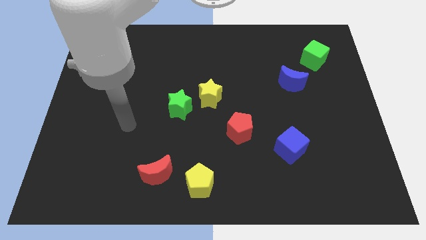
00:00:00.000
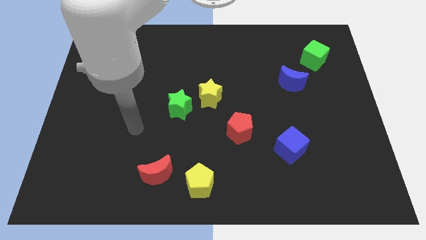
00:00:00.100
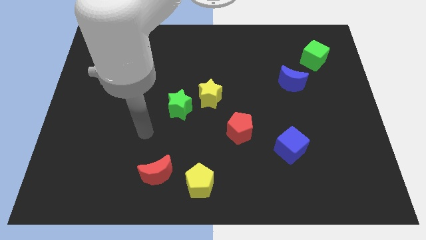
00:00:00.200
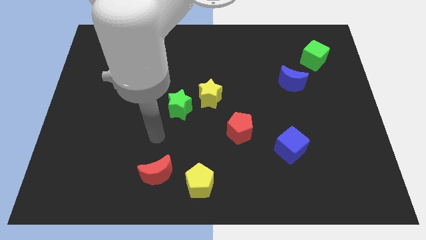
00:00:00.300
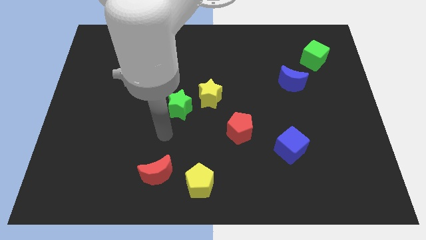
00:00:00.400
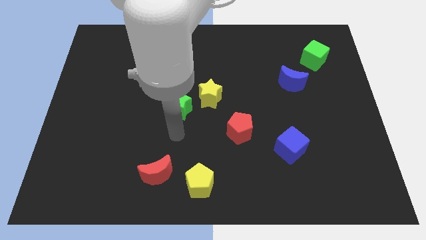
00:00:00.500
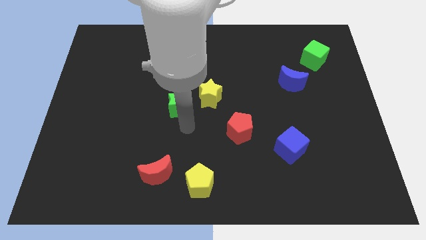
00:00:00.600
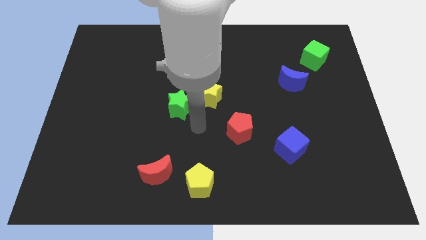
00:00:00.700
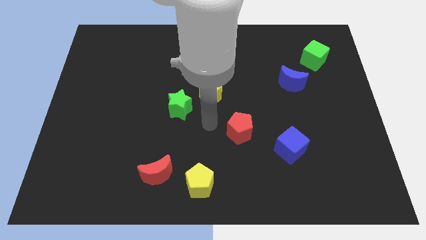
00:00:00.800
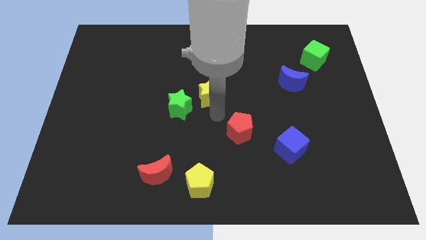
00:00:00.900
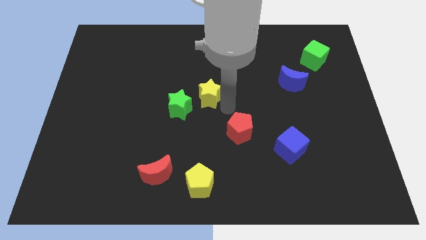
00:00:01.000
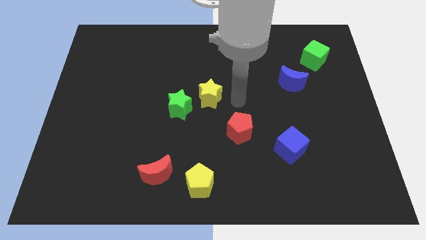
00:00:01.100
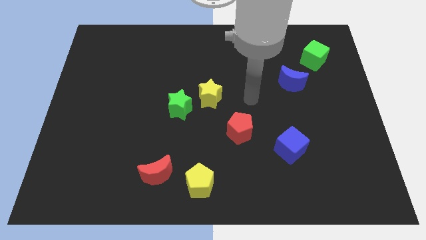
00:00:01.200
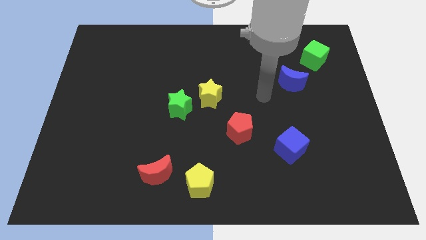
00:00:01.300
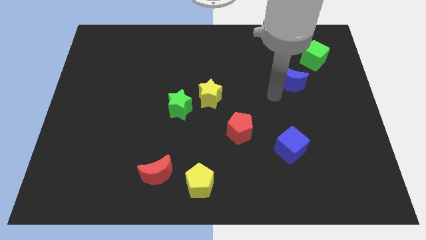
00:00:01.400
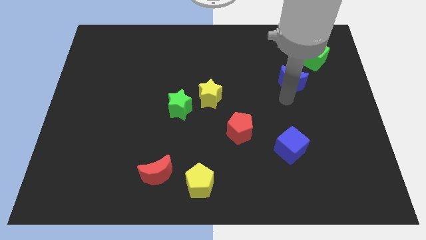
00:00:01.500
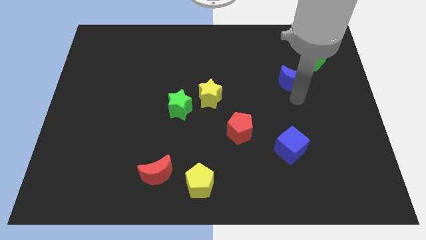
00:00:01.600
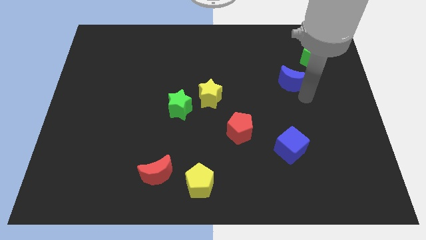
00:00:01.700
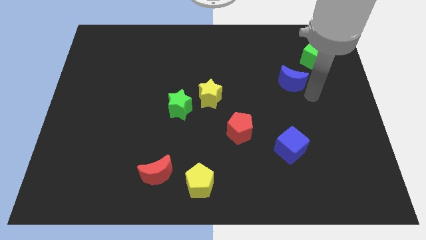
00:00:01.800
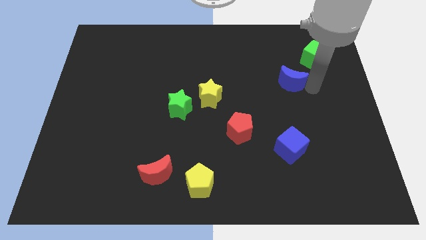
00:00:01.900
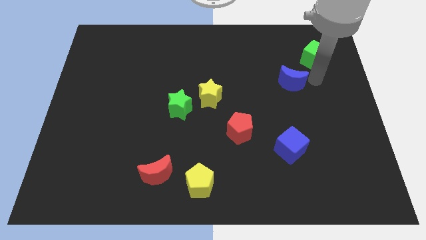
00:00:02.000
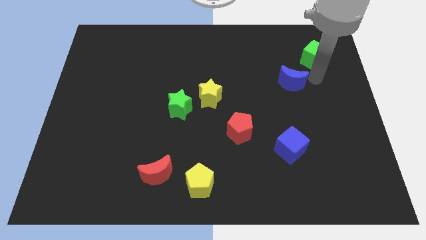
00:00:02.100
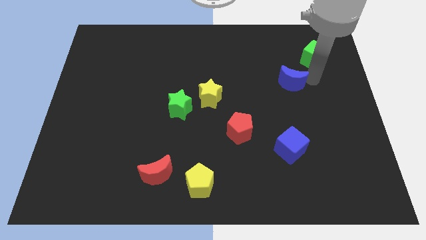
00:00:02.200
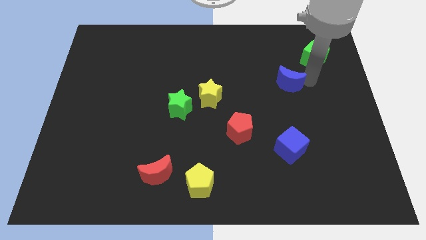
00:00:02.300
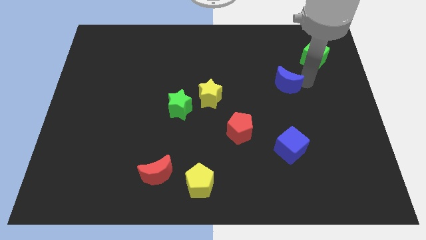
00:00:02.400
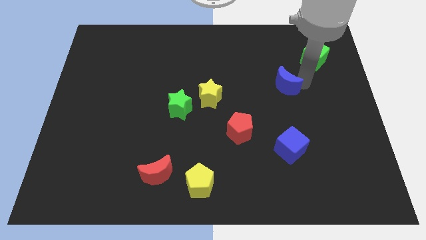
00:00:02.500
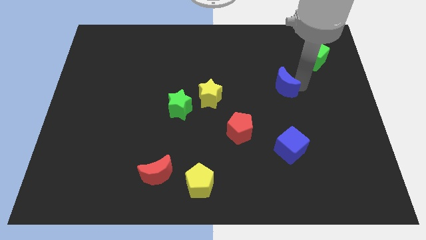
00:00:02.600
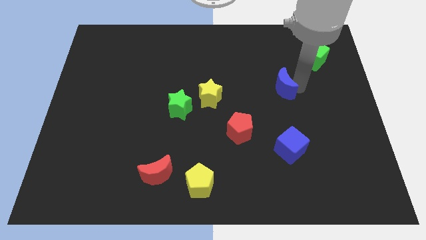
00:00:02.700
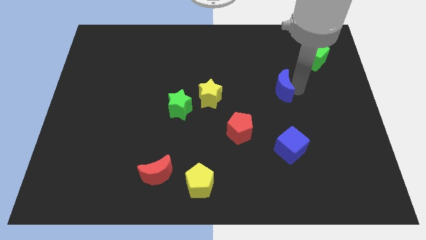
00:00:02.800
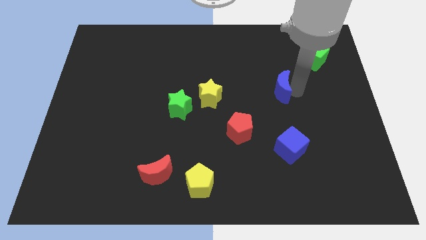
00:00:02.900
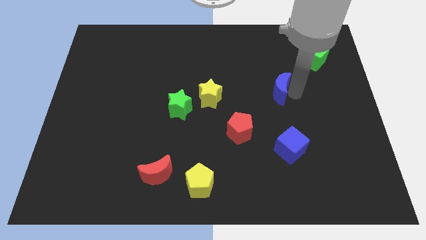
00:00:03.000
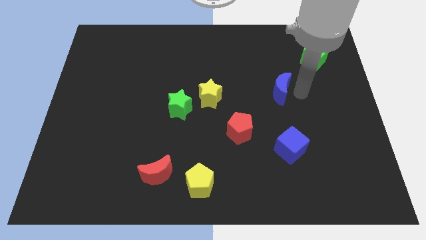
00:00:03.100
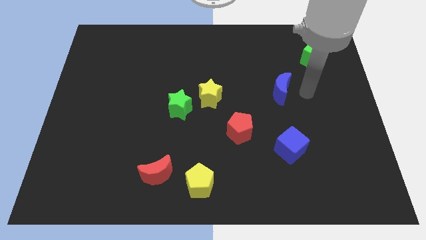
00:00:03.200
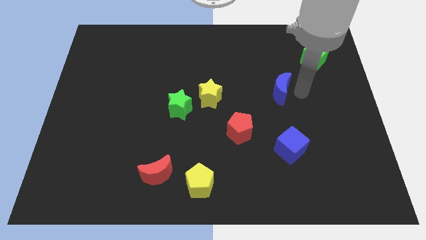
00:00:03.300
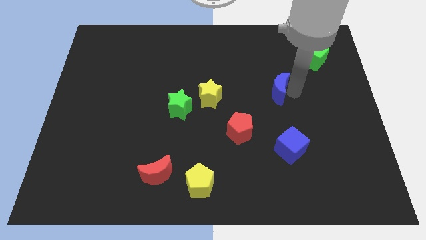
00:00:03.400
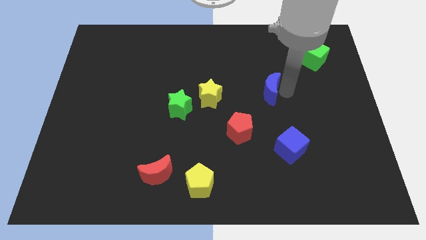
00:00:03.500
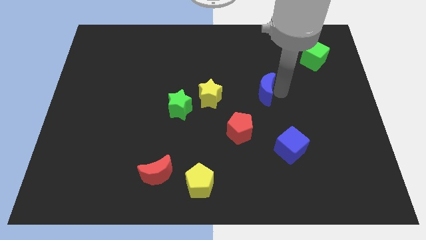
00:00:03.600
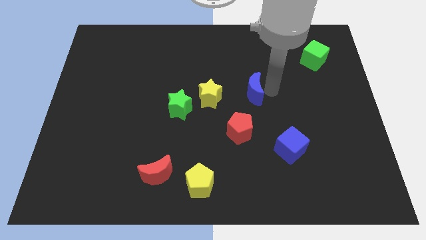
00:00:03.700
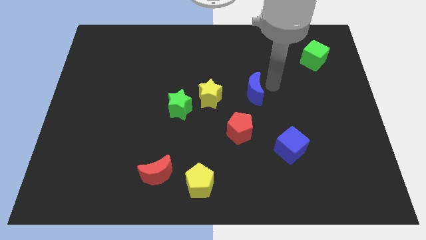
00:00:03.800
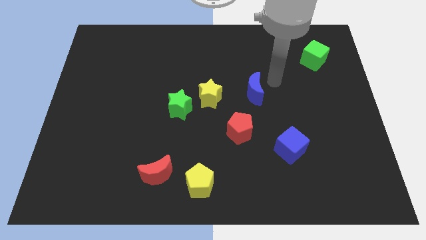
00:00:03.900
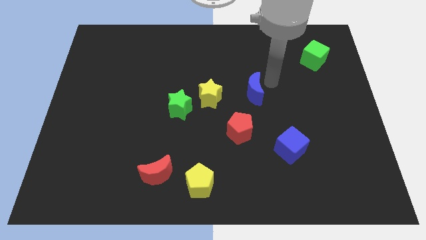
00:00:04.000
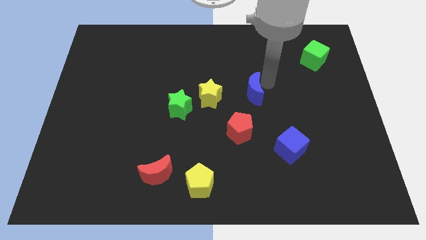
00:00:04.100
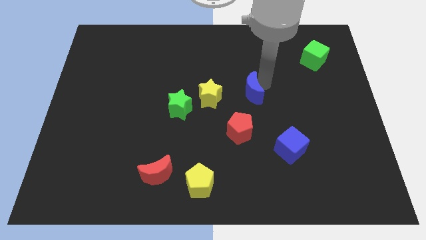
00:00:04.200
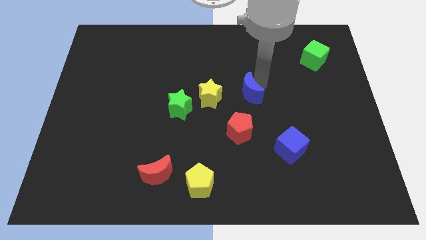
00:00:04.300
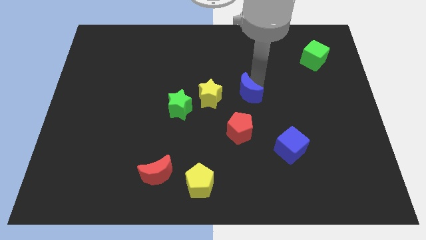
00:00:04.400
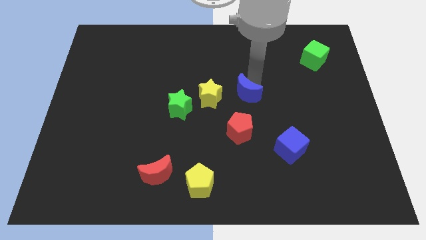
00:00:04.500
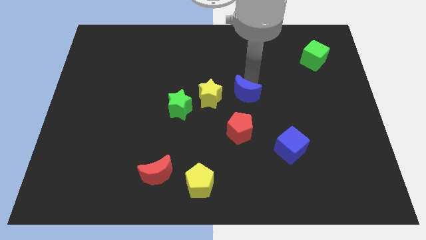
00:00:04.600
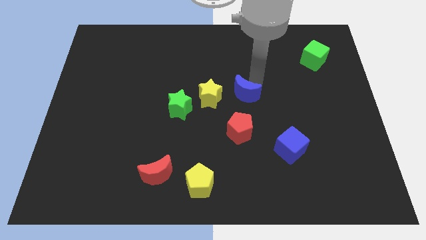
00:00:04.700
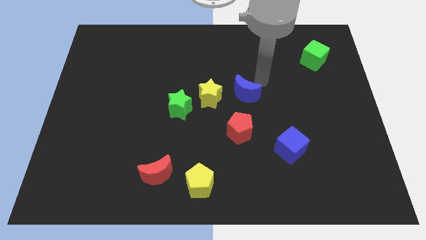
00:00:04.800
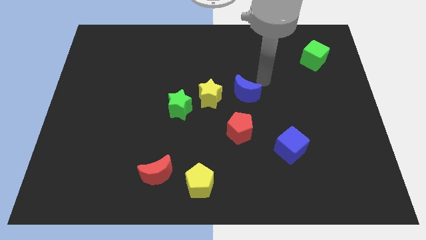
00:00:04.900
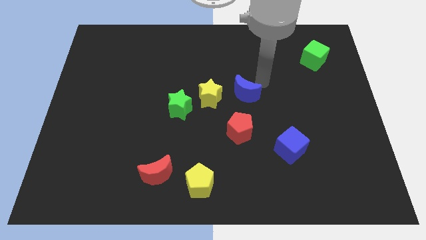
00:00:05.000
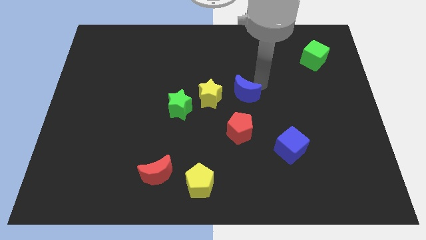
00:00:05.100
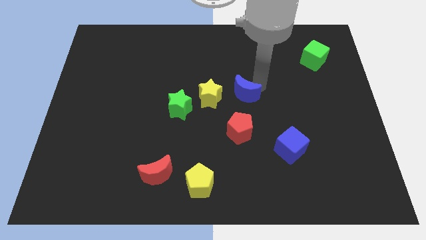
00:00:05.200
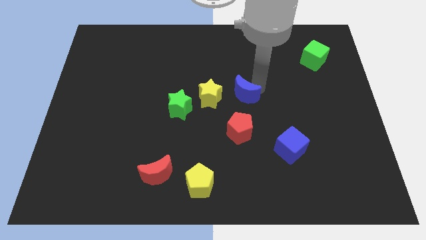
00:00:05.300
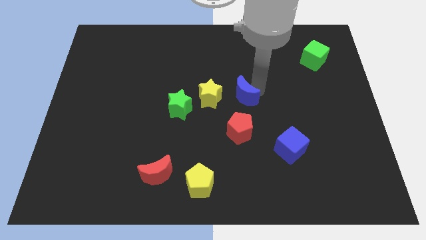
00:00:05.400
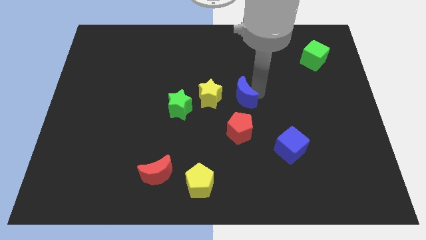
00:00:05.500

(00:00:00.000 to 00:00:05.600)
move the blue moon to the right of the green star

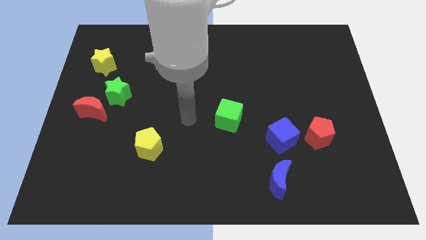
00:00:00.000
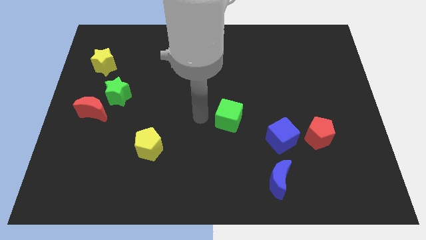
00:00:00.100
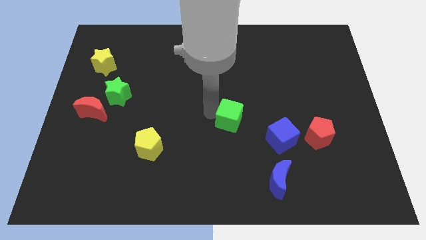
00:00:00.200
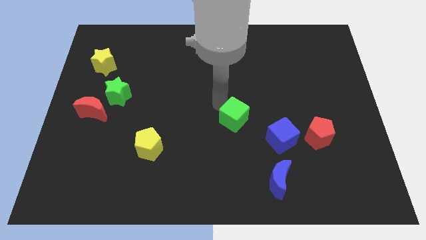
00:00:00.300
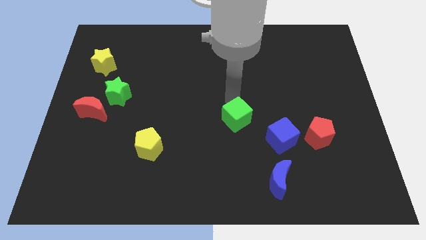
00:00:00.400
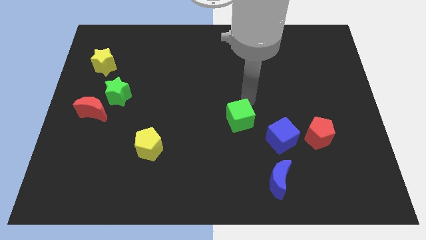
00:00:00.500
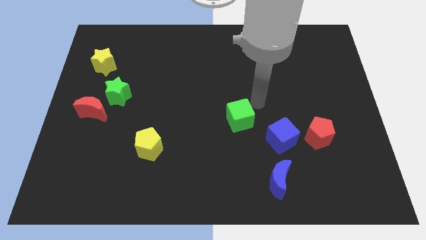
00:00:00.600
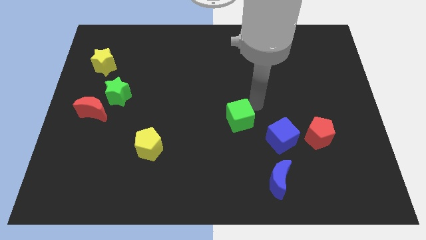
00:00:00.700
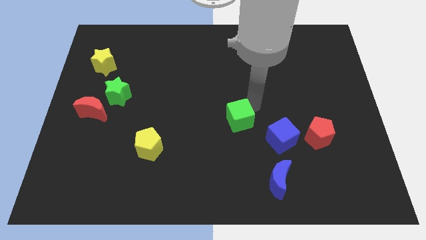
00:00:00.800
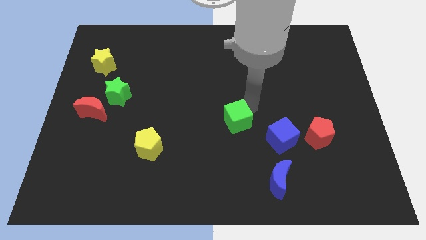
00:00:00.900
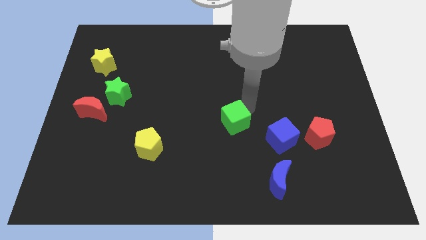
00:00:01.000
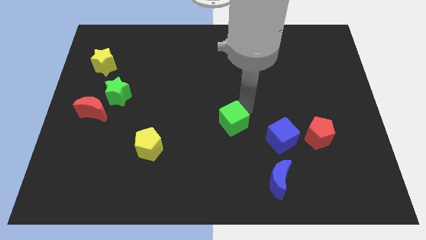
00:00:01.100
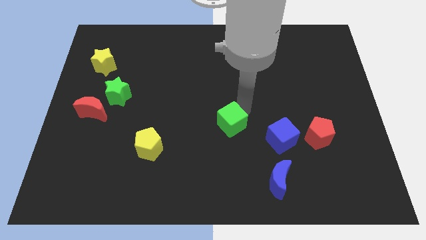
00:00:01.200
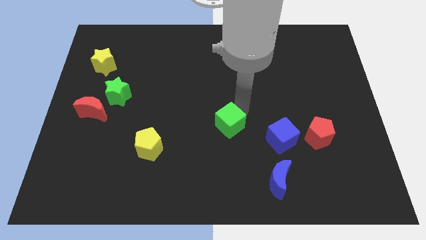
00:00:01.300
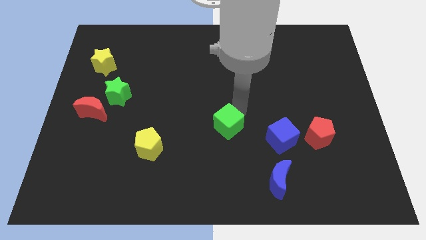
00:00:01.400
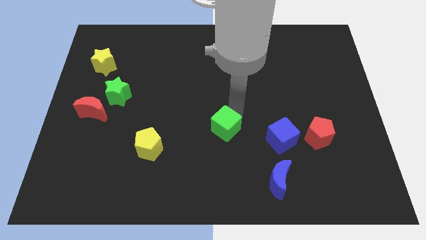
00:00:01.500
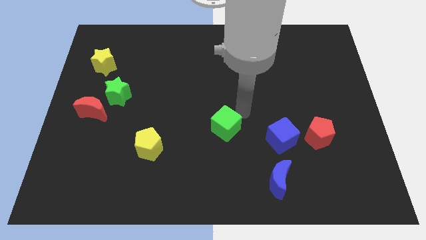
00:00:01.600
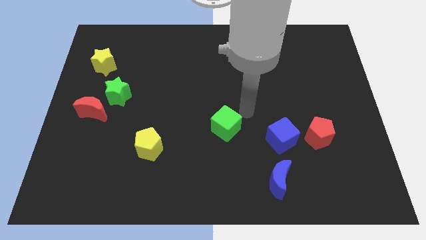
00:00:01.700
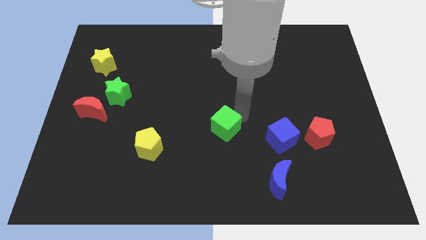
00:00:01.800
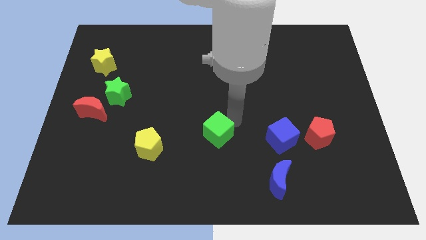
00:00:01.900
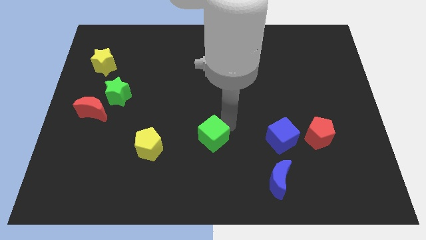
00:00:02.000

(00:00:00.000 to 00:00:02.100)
slide the green cube to the right of the yellow pentagon
